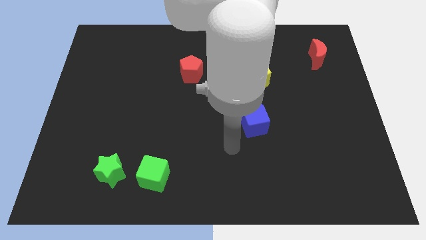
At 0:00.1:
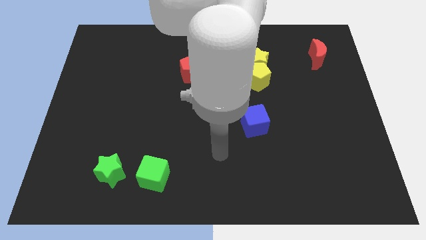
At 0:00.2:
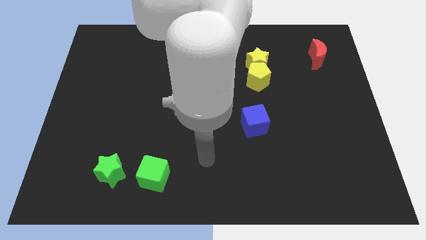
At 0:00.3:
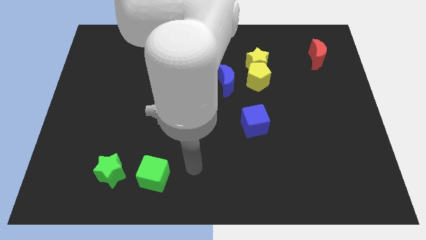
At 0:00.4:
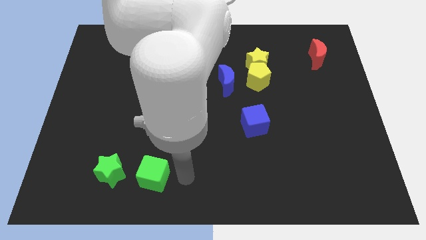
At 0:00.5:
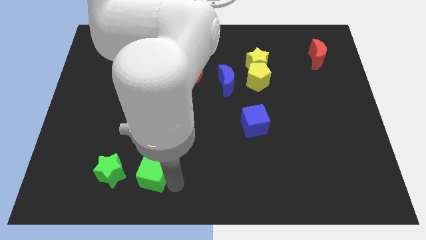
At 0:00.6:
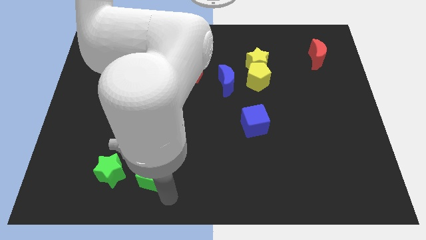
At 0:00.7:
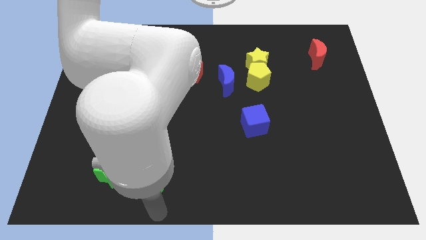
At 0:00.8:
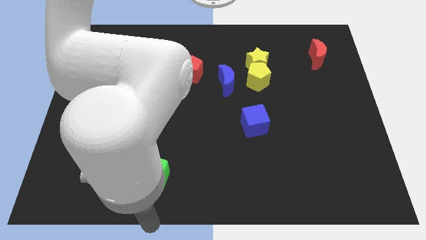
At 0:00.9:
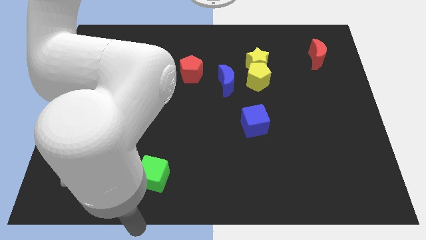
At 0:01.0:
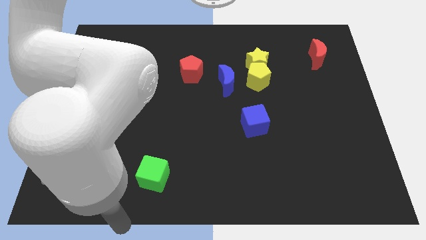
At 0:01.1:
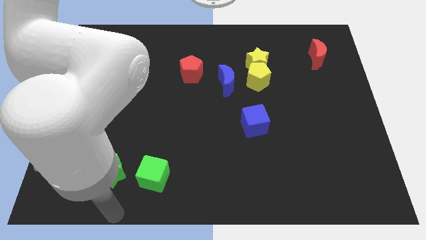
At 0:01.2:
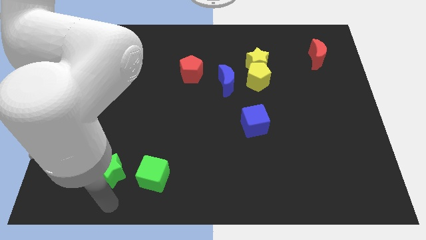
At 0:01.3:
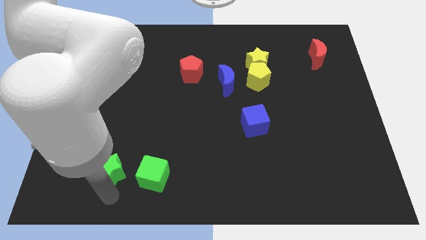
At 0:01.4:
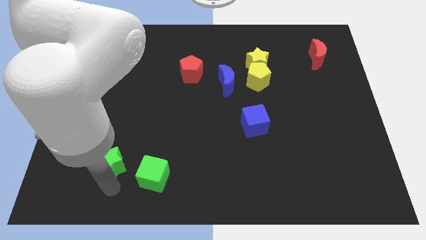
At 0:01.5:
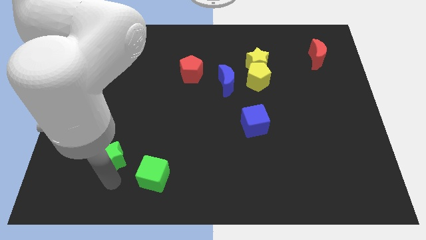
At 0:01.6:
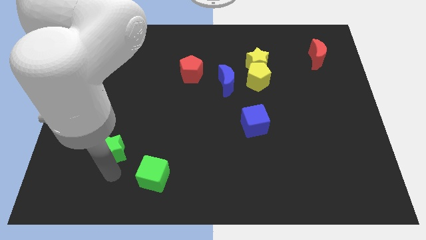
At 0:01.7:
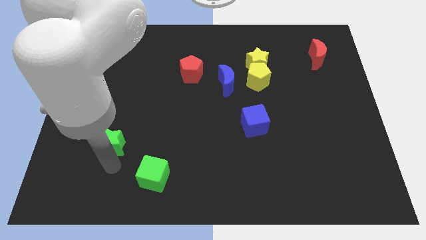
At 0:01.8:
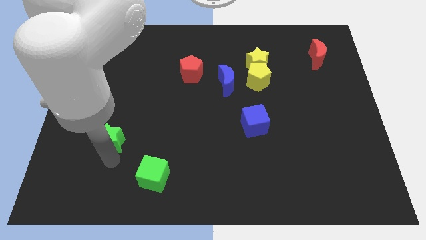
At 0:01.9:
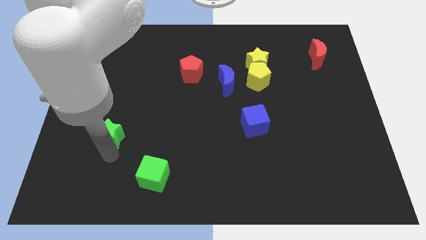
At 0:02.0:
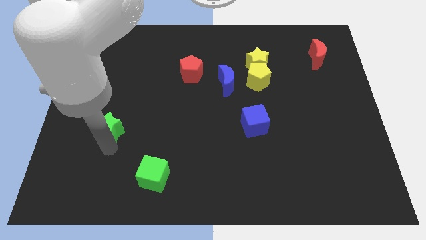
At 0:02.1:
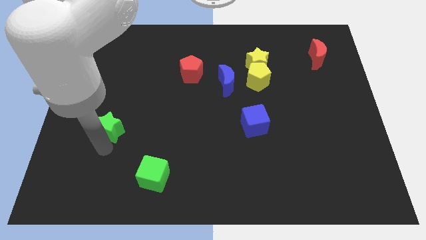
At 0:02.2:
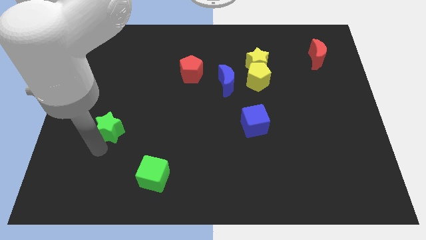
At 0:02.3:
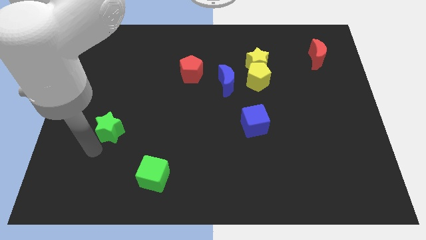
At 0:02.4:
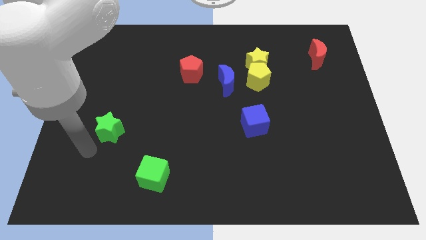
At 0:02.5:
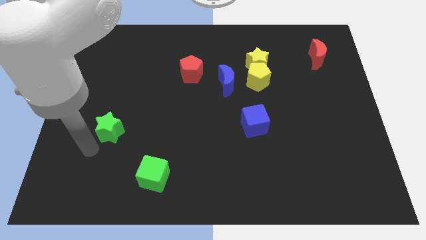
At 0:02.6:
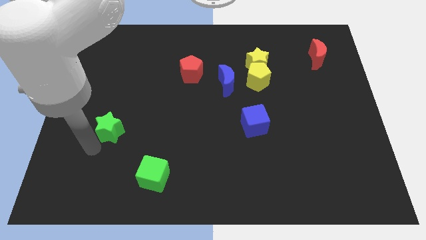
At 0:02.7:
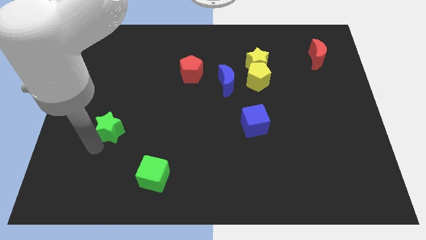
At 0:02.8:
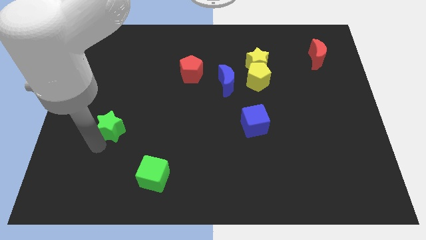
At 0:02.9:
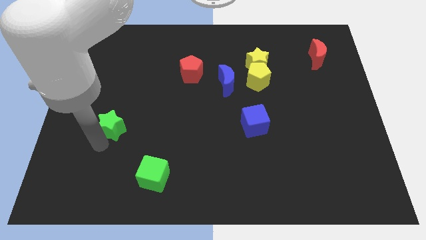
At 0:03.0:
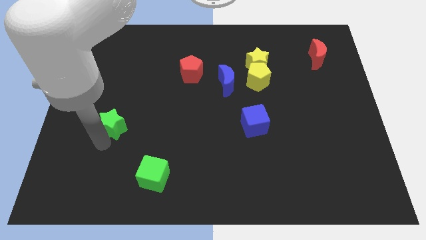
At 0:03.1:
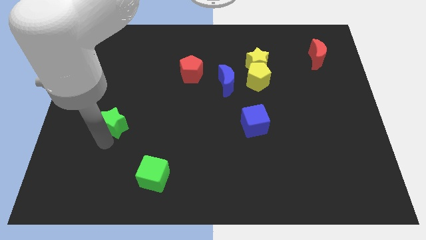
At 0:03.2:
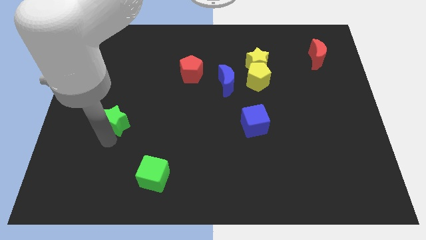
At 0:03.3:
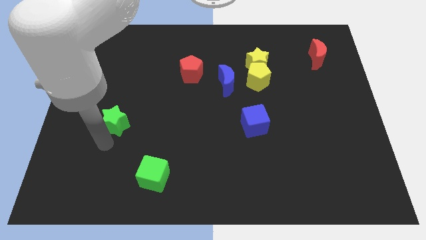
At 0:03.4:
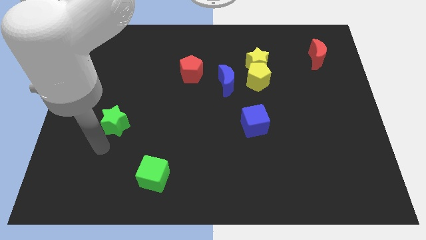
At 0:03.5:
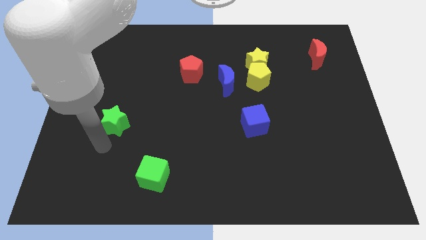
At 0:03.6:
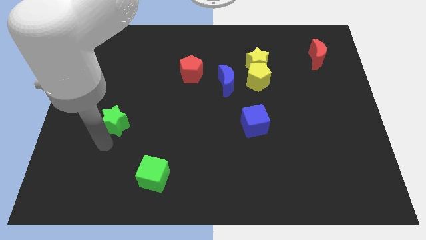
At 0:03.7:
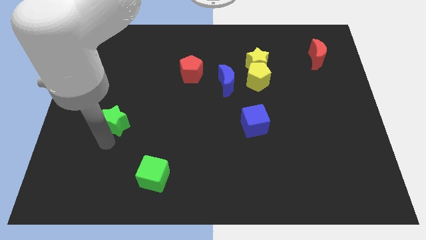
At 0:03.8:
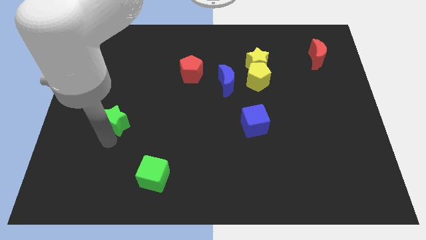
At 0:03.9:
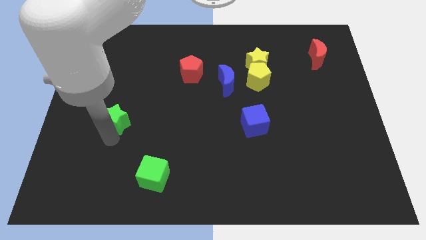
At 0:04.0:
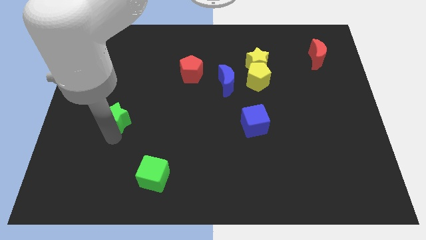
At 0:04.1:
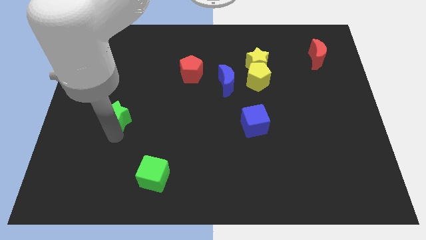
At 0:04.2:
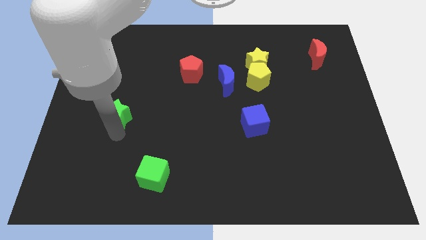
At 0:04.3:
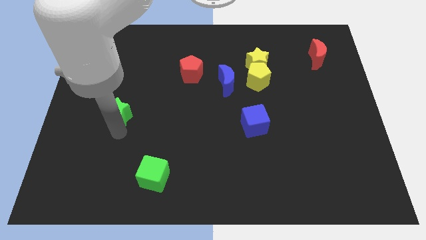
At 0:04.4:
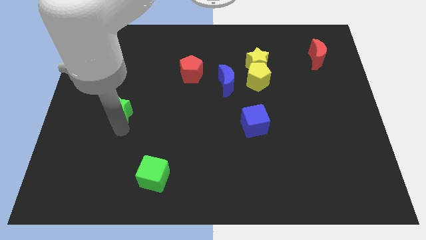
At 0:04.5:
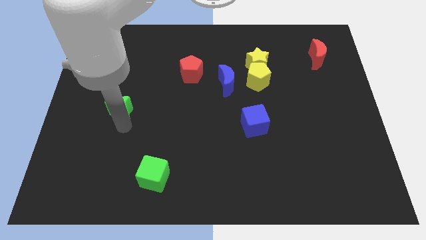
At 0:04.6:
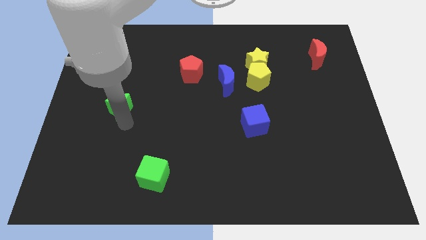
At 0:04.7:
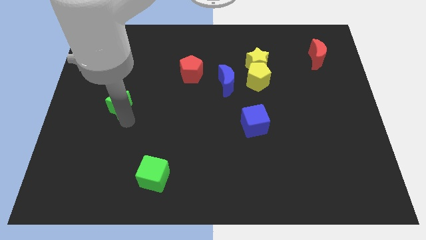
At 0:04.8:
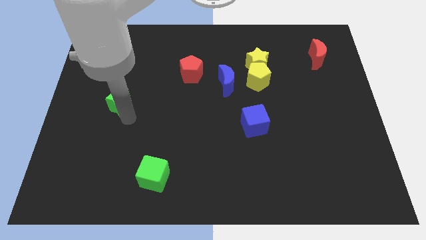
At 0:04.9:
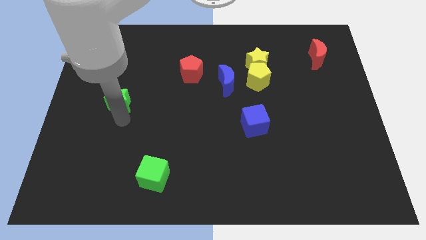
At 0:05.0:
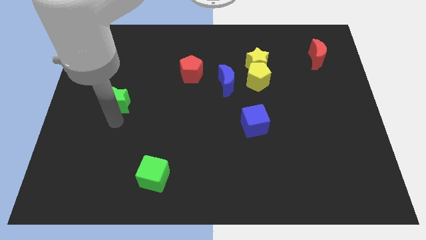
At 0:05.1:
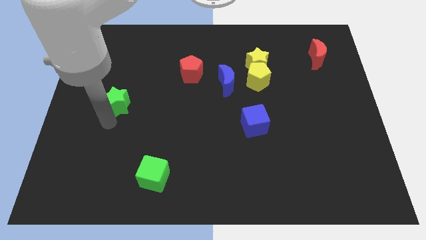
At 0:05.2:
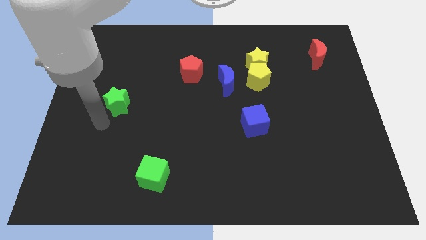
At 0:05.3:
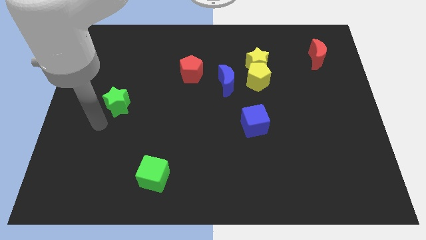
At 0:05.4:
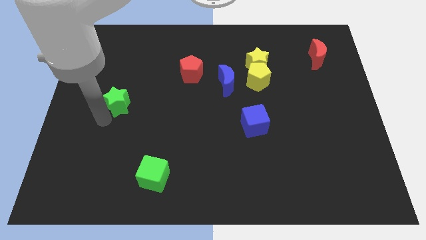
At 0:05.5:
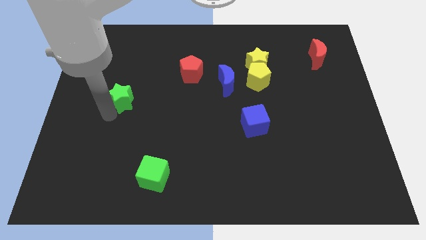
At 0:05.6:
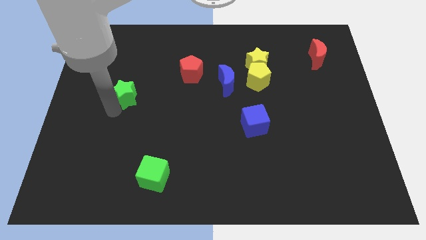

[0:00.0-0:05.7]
push the green star up

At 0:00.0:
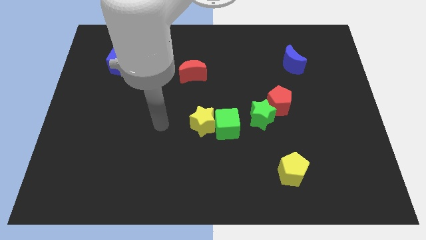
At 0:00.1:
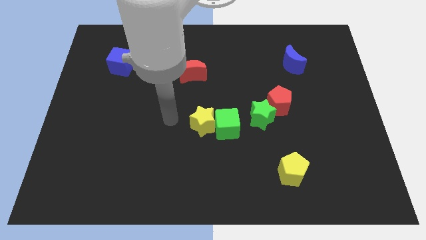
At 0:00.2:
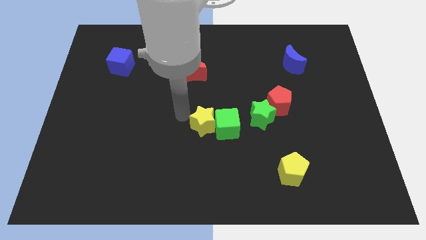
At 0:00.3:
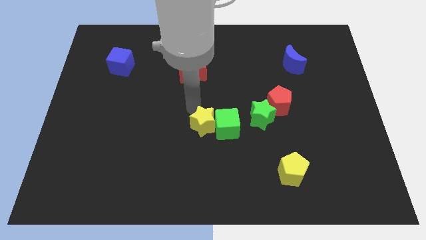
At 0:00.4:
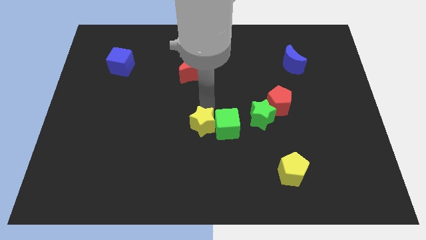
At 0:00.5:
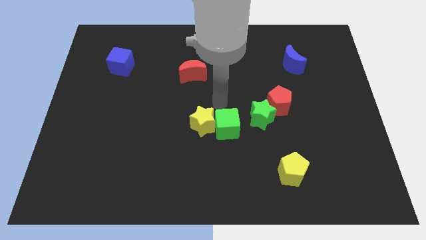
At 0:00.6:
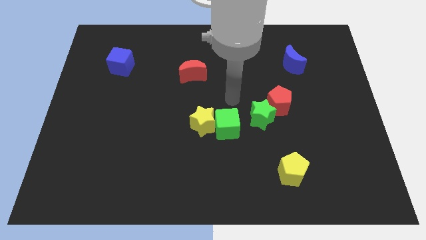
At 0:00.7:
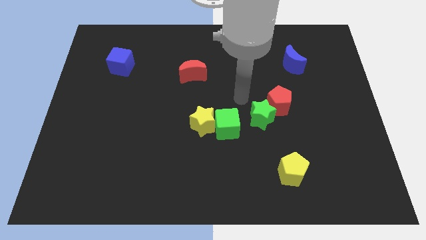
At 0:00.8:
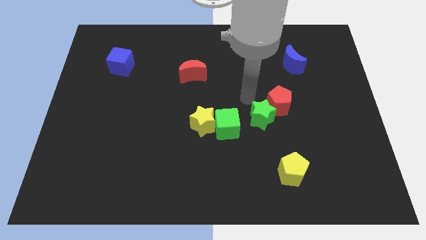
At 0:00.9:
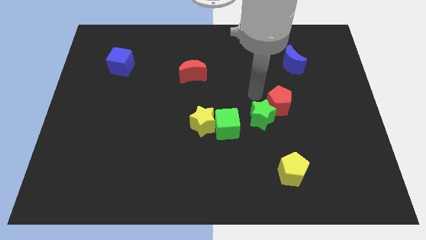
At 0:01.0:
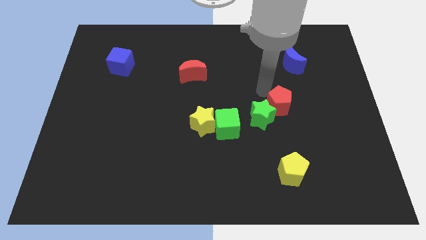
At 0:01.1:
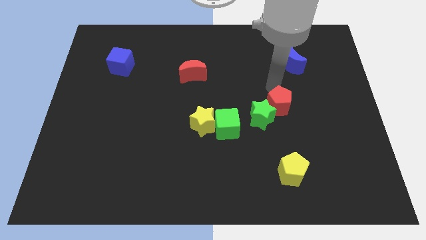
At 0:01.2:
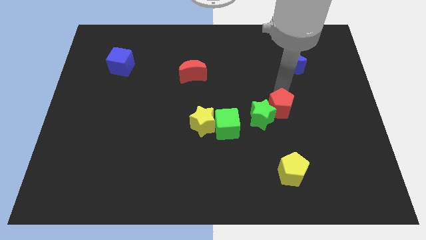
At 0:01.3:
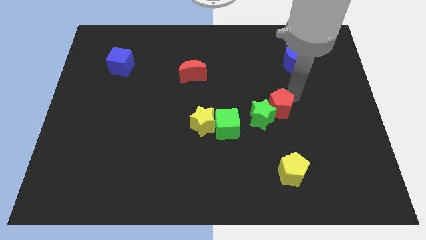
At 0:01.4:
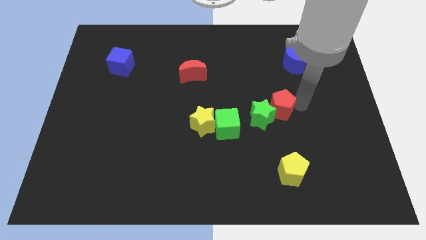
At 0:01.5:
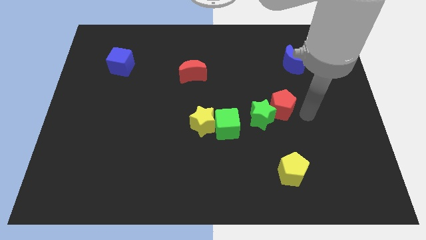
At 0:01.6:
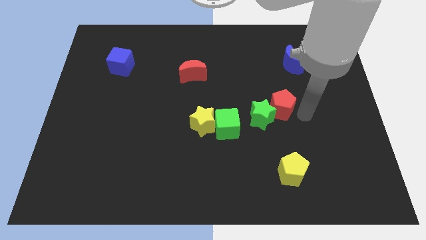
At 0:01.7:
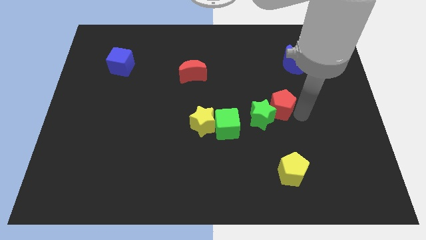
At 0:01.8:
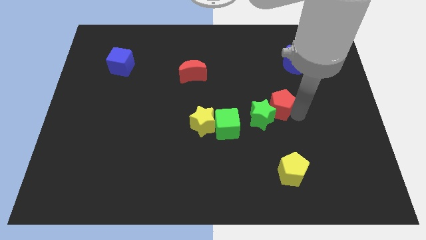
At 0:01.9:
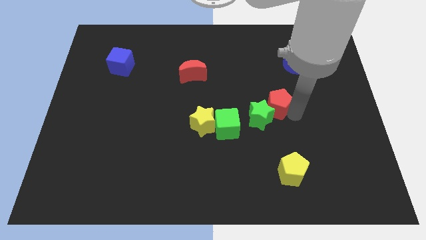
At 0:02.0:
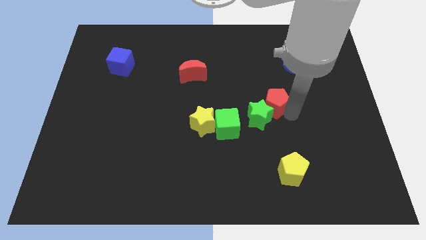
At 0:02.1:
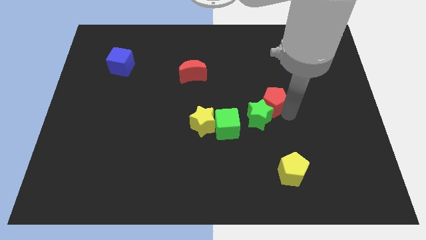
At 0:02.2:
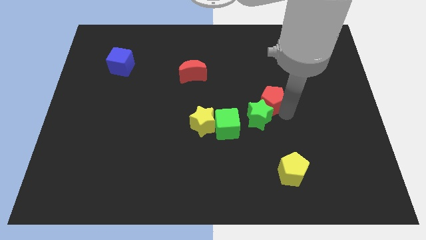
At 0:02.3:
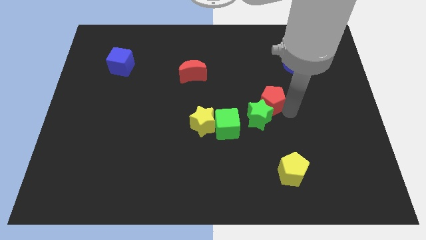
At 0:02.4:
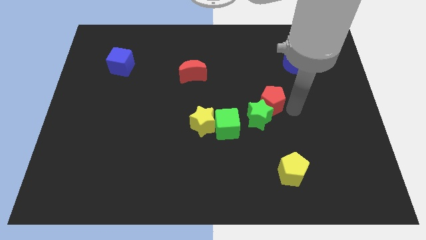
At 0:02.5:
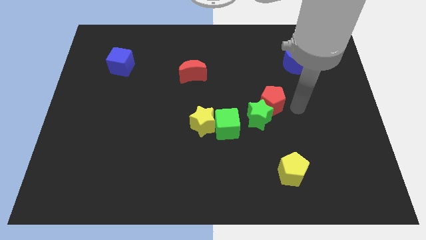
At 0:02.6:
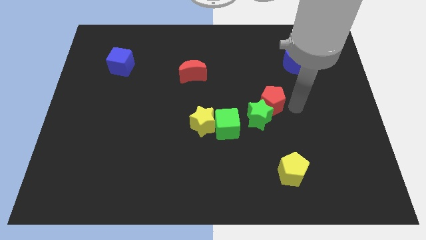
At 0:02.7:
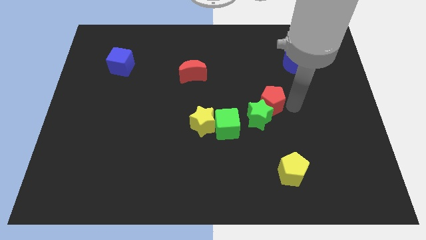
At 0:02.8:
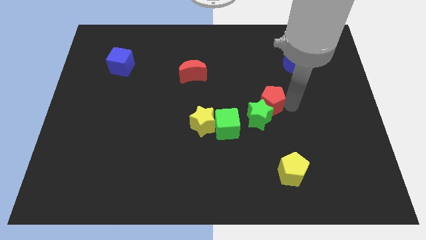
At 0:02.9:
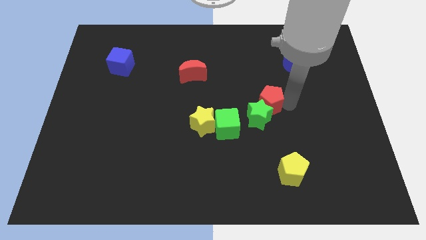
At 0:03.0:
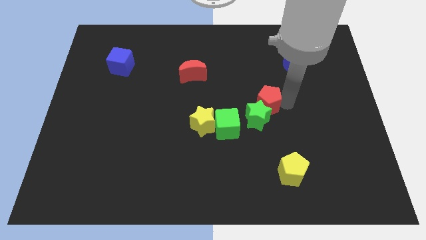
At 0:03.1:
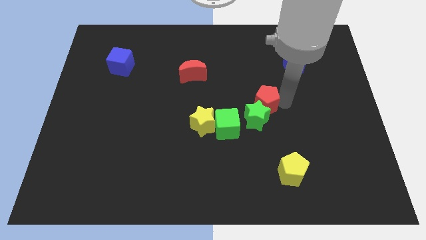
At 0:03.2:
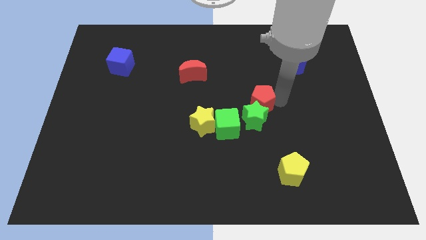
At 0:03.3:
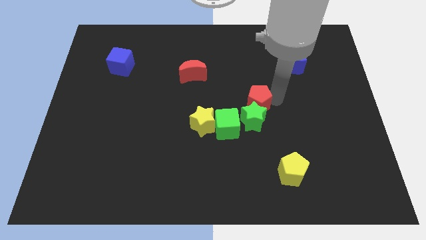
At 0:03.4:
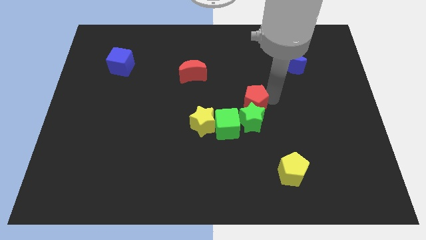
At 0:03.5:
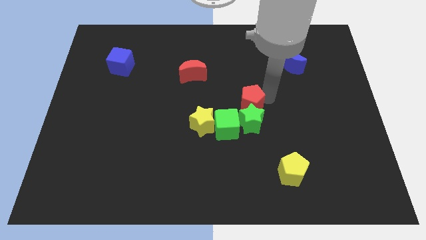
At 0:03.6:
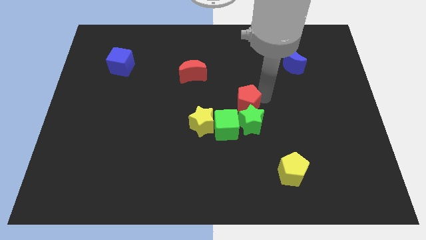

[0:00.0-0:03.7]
slide the red pentagon left slightly
